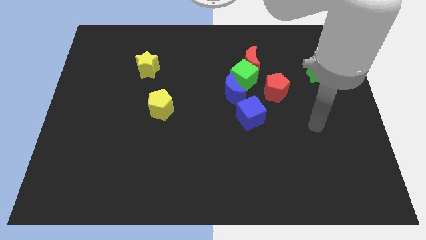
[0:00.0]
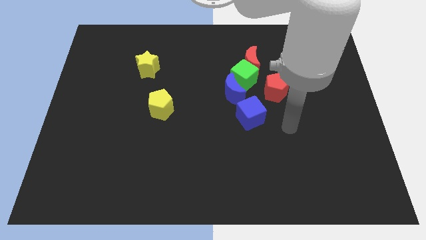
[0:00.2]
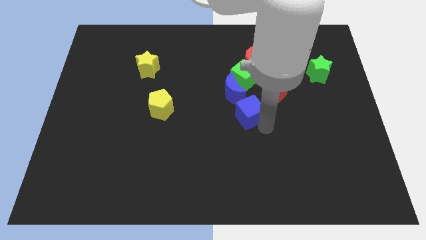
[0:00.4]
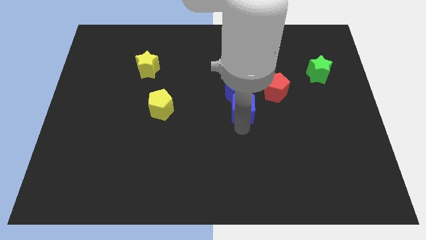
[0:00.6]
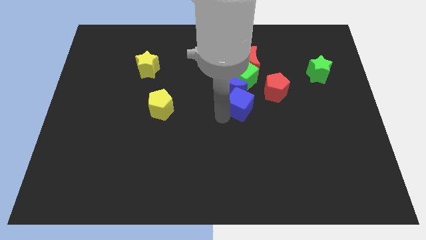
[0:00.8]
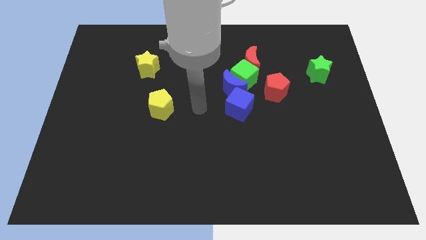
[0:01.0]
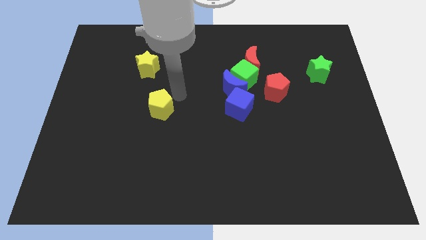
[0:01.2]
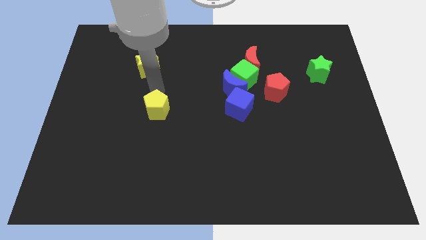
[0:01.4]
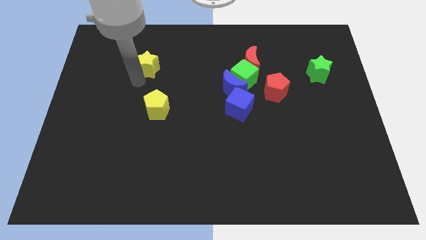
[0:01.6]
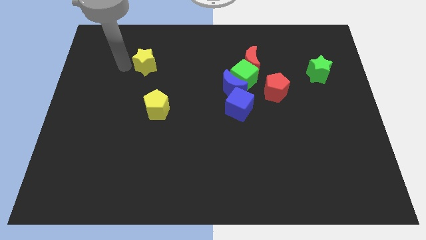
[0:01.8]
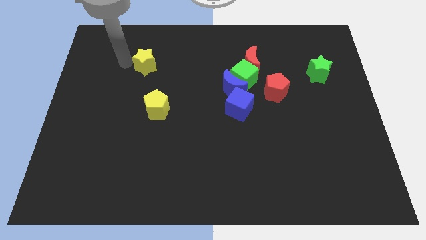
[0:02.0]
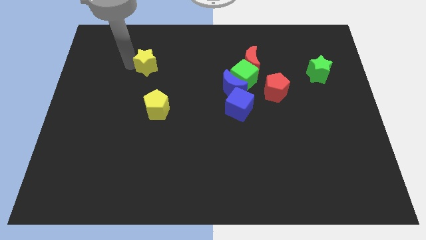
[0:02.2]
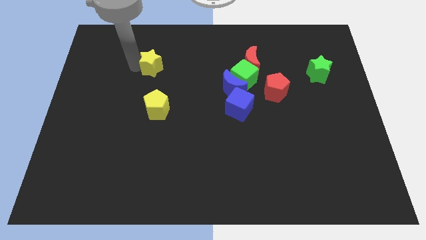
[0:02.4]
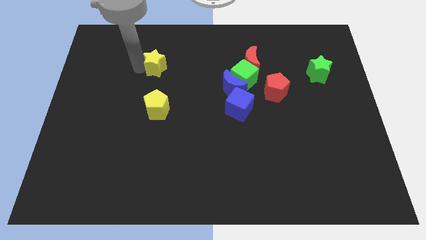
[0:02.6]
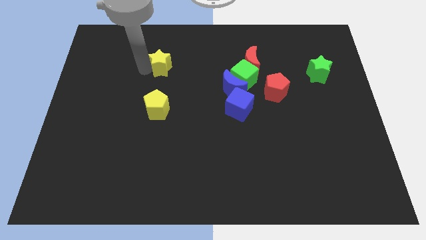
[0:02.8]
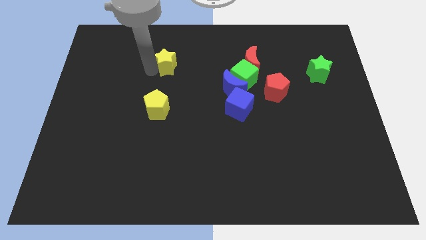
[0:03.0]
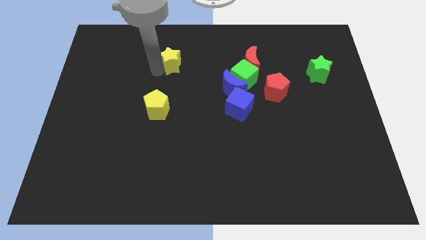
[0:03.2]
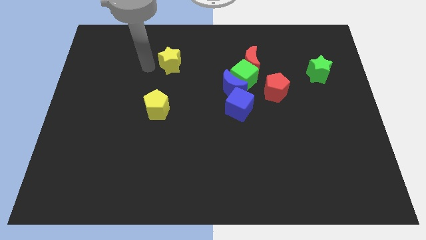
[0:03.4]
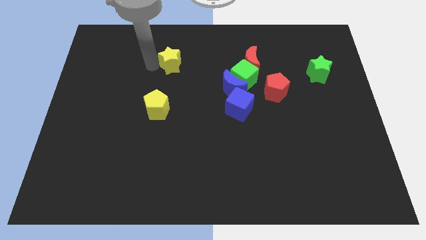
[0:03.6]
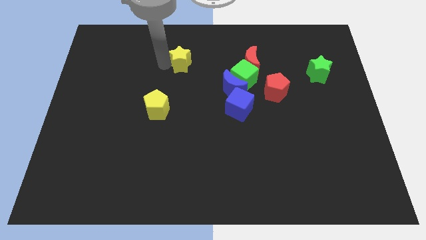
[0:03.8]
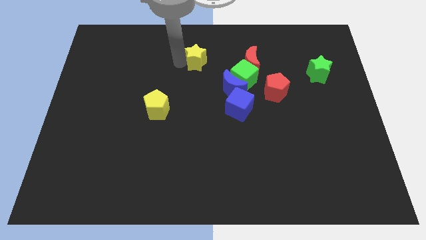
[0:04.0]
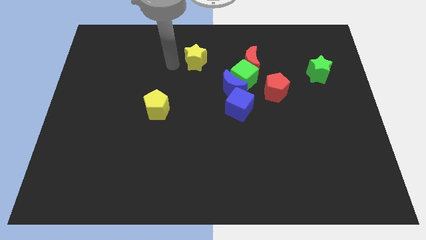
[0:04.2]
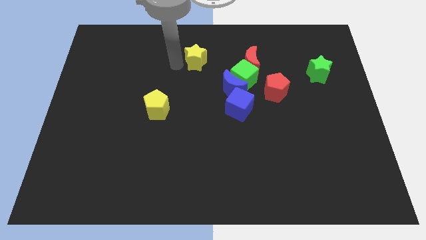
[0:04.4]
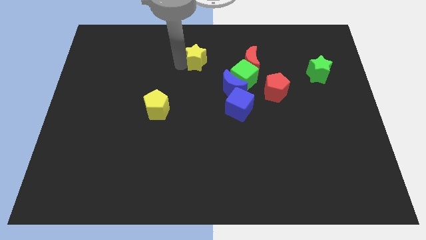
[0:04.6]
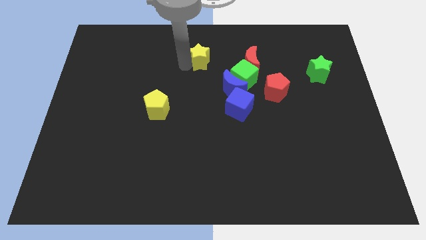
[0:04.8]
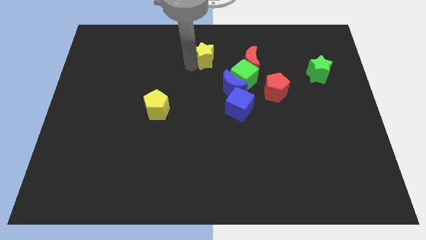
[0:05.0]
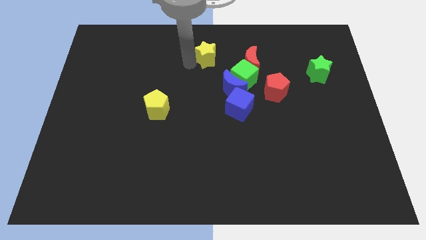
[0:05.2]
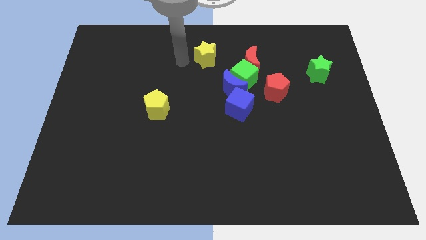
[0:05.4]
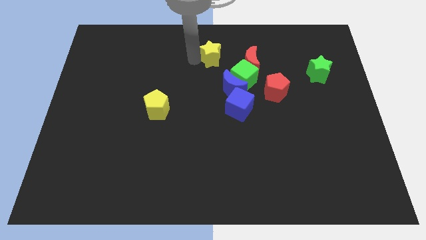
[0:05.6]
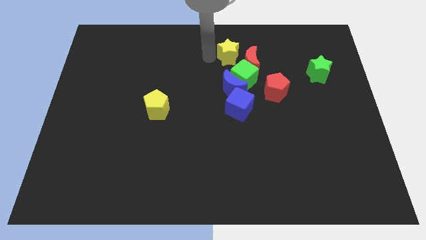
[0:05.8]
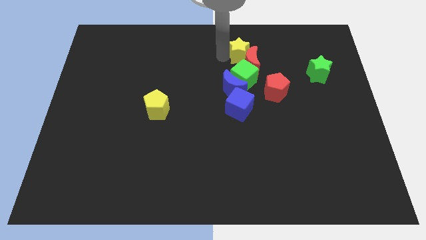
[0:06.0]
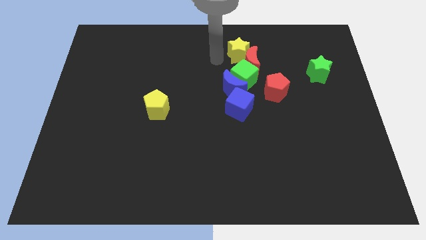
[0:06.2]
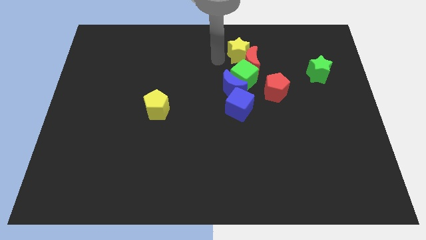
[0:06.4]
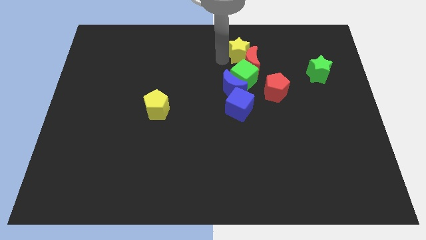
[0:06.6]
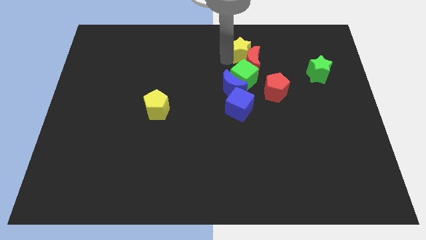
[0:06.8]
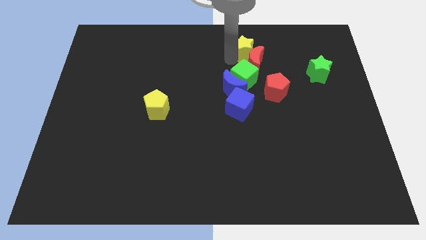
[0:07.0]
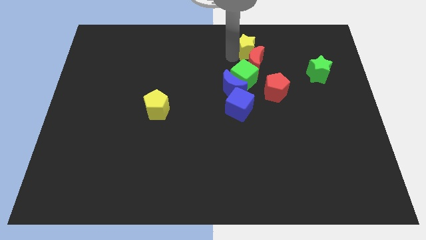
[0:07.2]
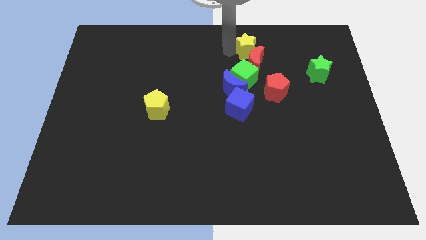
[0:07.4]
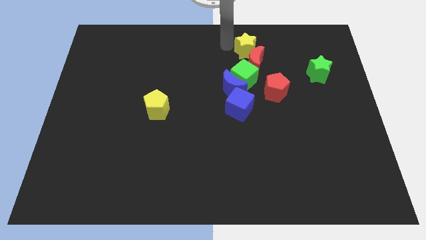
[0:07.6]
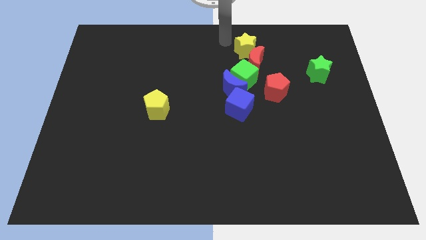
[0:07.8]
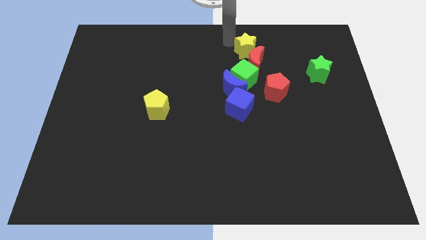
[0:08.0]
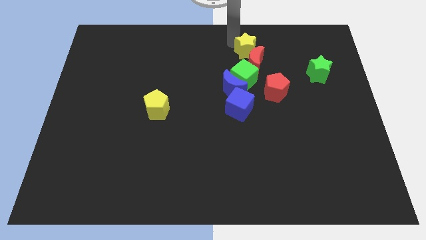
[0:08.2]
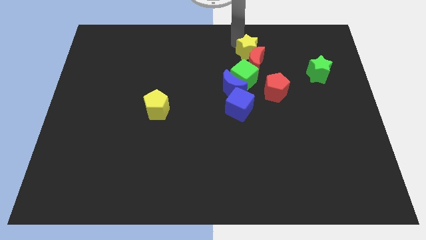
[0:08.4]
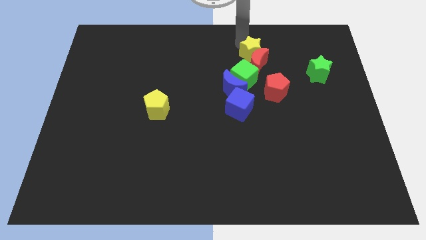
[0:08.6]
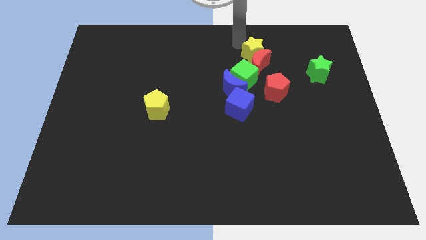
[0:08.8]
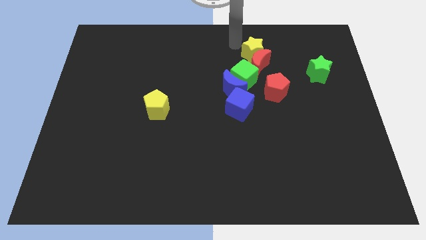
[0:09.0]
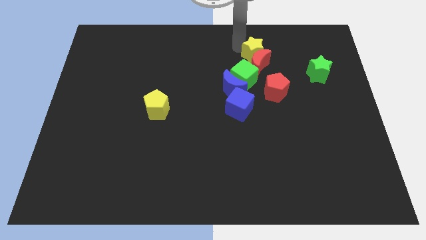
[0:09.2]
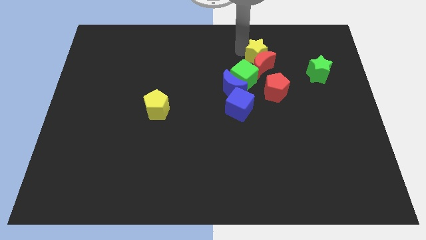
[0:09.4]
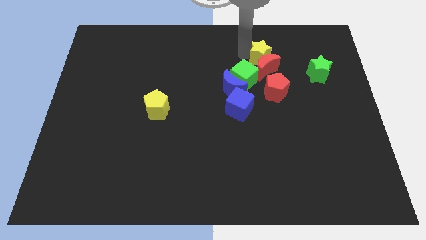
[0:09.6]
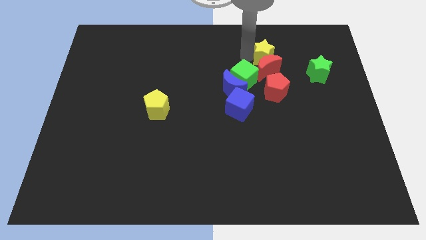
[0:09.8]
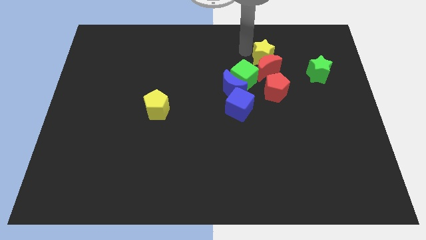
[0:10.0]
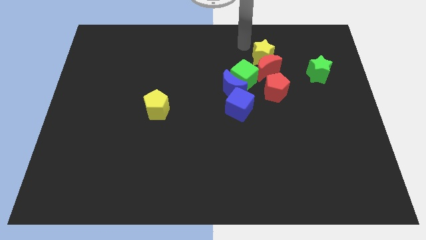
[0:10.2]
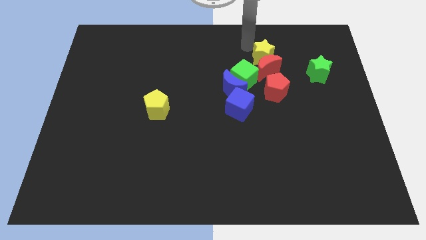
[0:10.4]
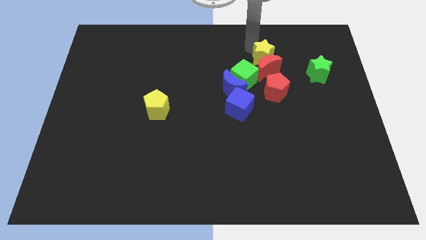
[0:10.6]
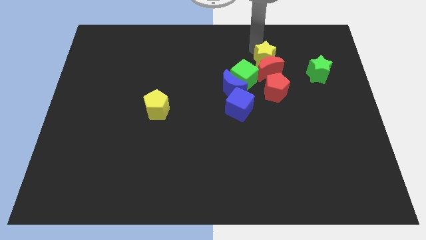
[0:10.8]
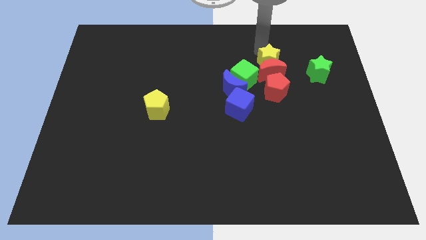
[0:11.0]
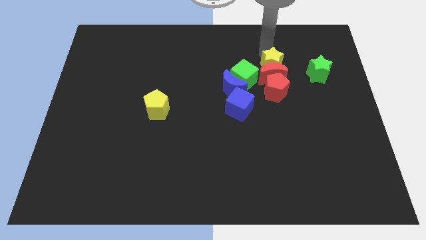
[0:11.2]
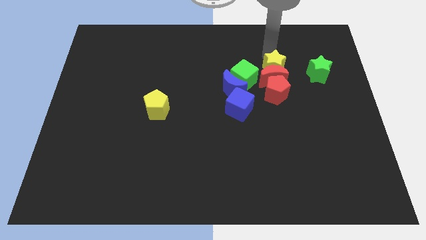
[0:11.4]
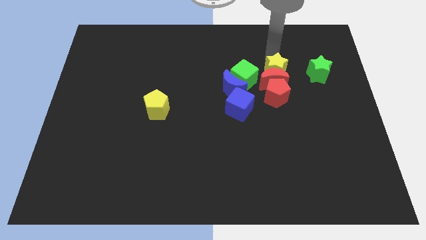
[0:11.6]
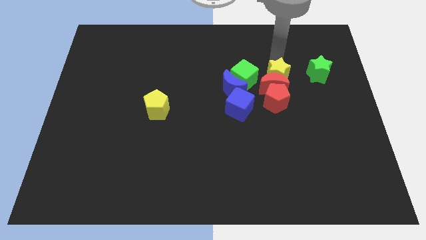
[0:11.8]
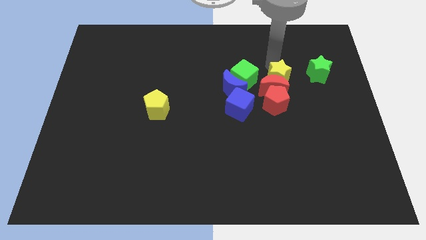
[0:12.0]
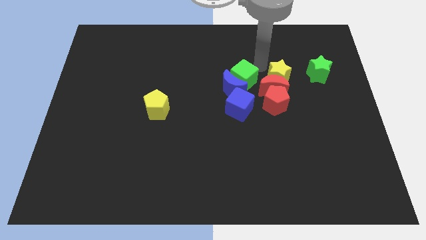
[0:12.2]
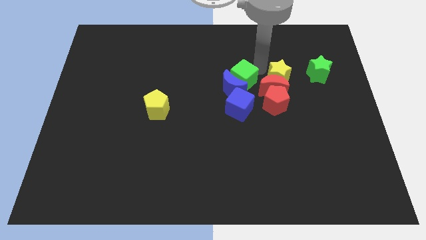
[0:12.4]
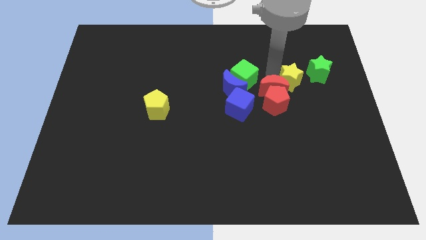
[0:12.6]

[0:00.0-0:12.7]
push the yellow star to the bottom left side of the green star
